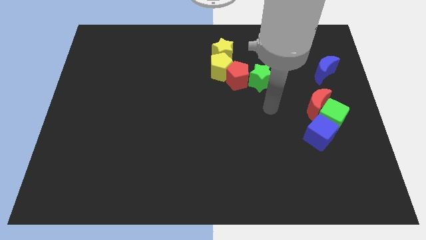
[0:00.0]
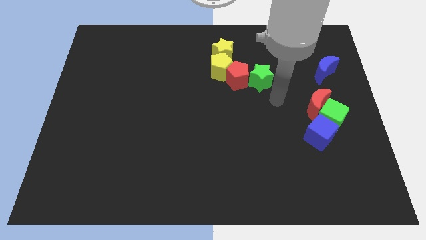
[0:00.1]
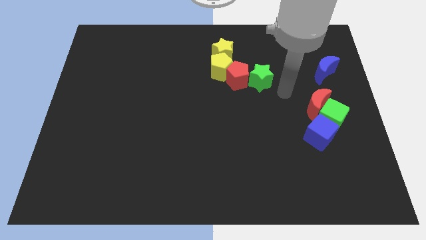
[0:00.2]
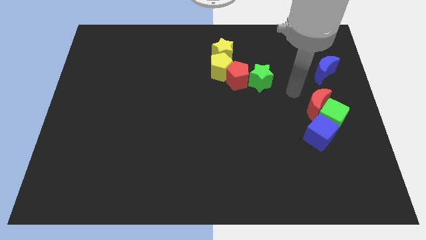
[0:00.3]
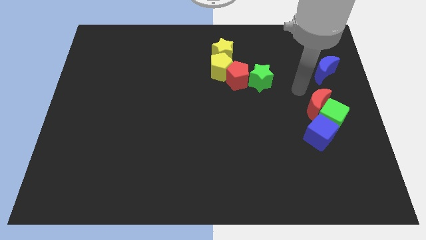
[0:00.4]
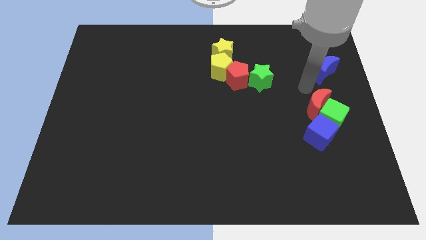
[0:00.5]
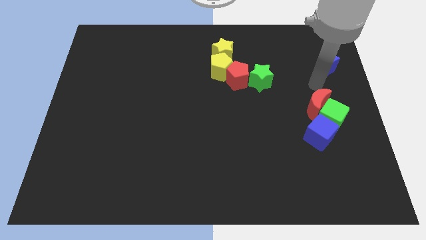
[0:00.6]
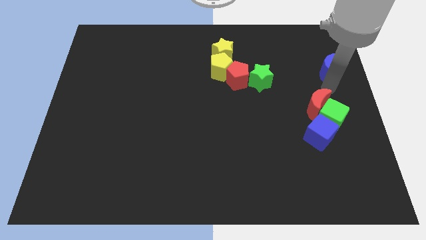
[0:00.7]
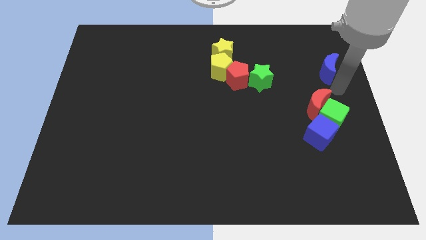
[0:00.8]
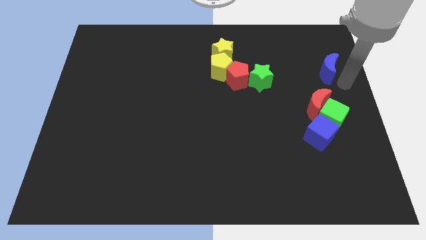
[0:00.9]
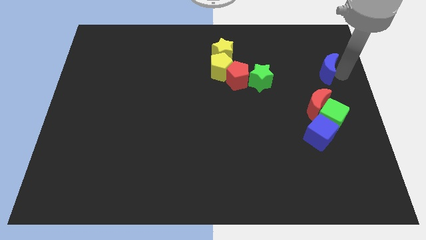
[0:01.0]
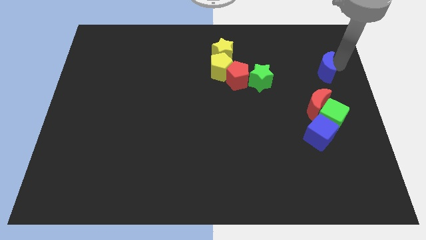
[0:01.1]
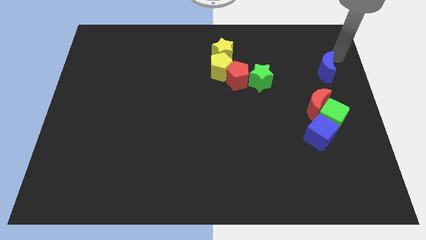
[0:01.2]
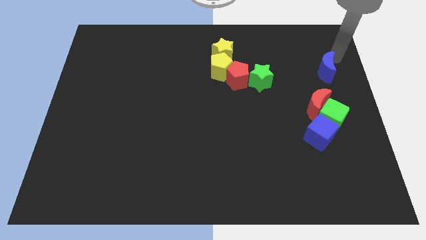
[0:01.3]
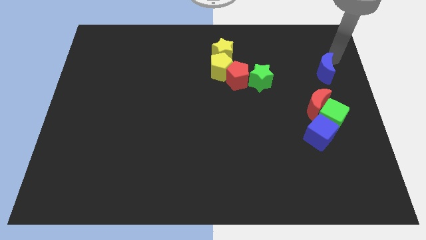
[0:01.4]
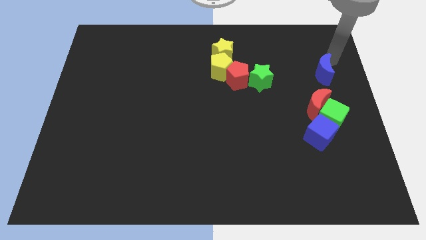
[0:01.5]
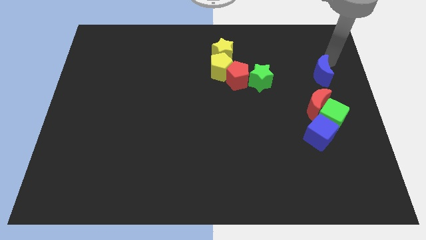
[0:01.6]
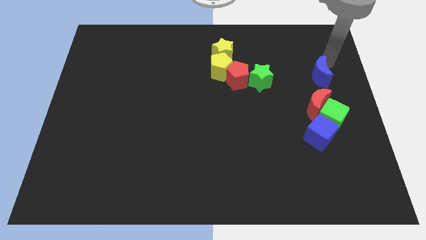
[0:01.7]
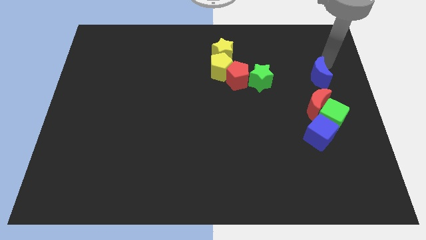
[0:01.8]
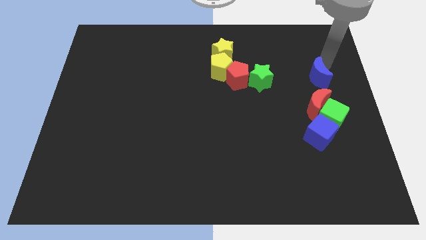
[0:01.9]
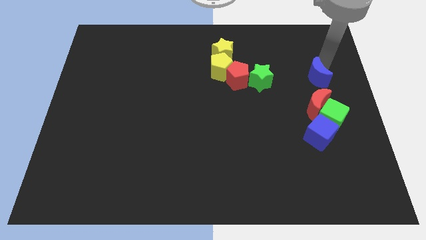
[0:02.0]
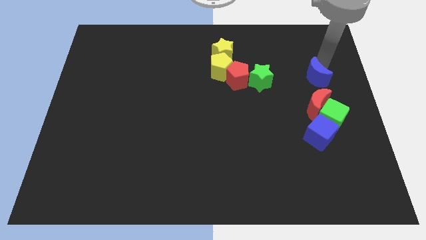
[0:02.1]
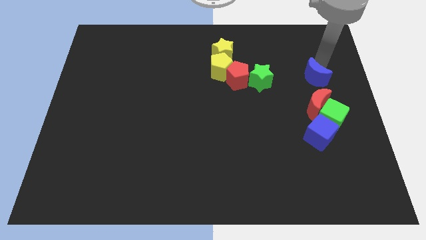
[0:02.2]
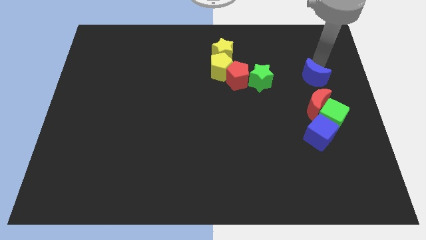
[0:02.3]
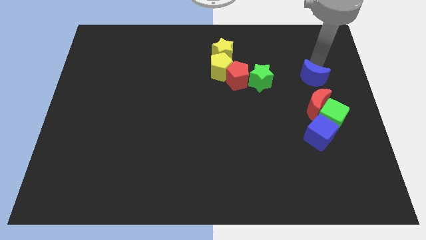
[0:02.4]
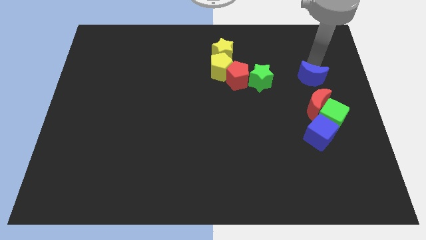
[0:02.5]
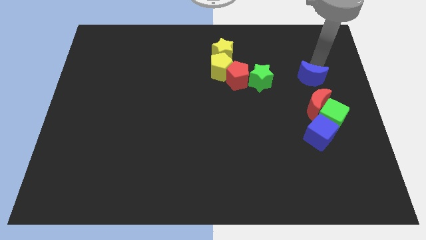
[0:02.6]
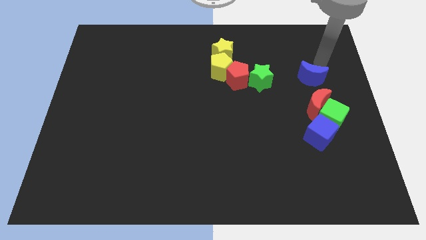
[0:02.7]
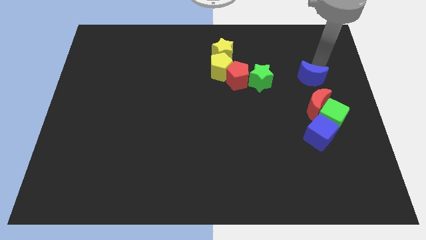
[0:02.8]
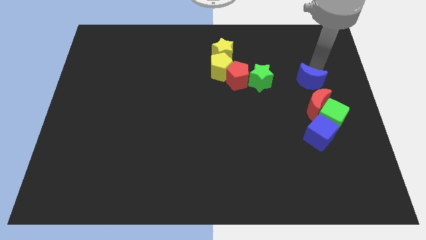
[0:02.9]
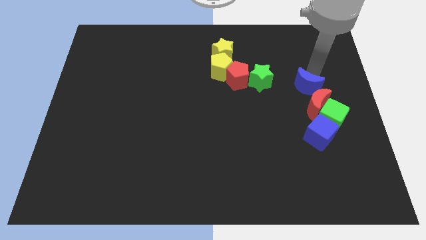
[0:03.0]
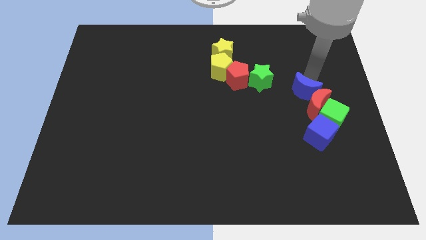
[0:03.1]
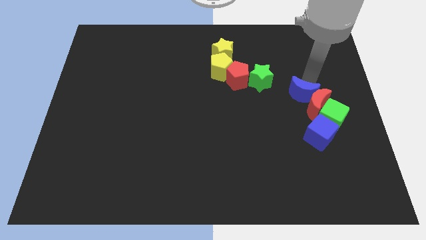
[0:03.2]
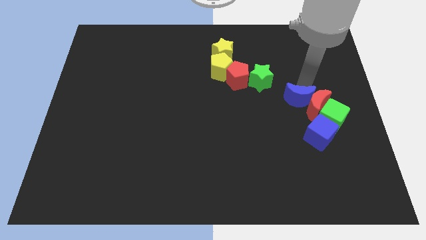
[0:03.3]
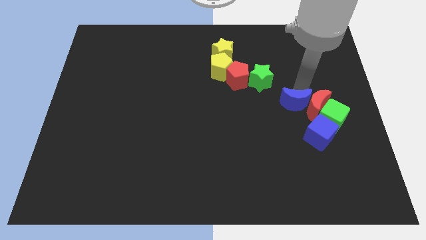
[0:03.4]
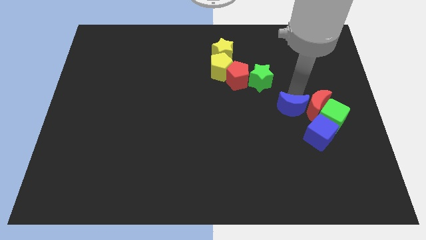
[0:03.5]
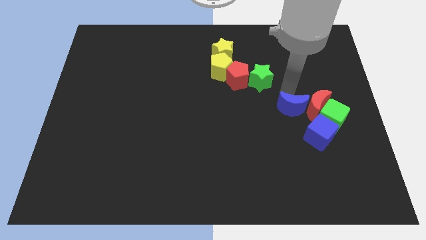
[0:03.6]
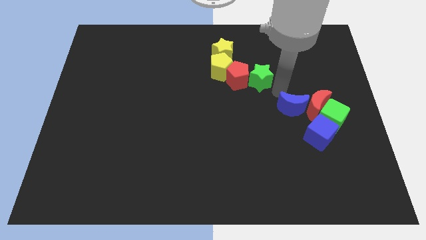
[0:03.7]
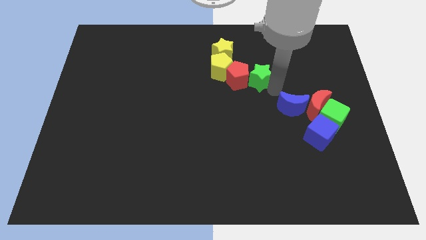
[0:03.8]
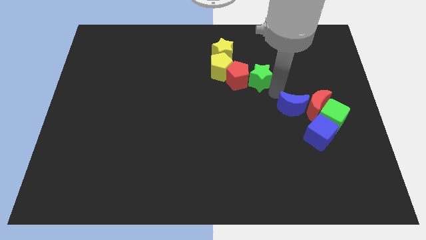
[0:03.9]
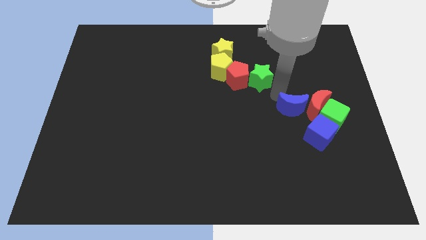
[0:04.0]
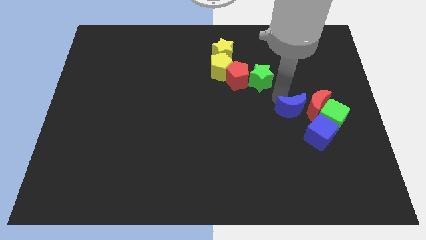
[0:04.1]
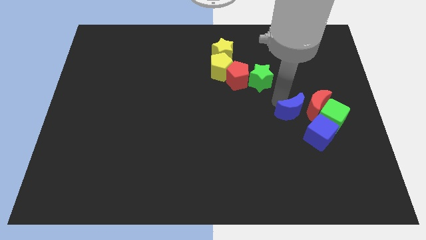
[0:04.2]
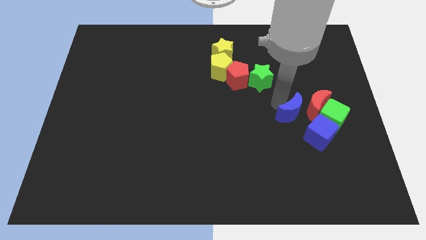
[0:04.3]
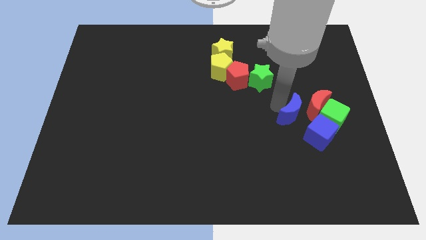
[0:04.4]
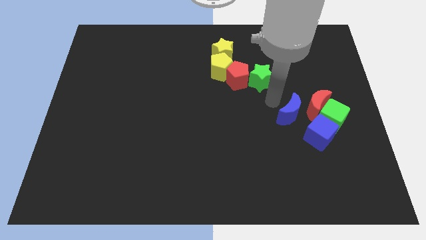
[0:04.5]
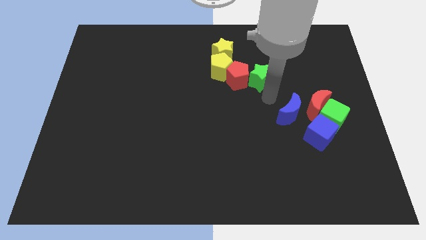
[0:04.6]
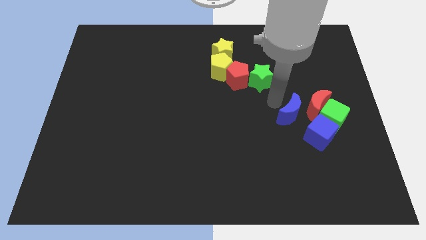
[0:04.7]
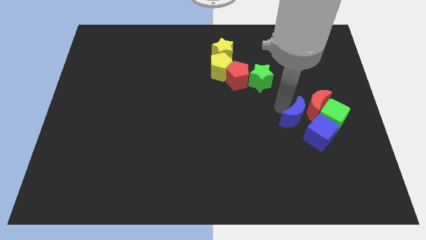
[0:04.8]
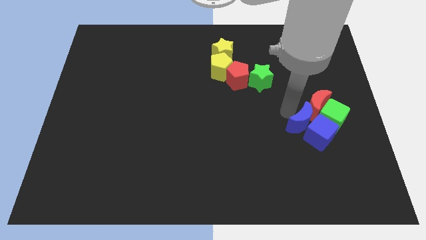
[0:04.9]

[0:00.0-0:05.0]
put the blue moon to the blue cube

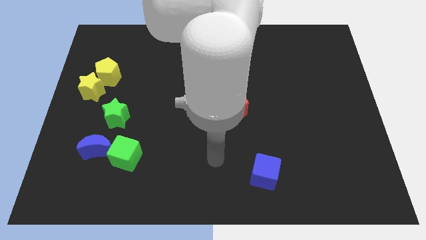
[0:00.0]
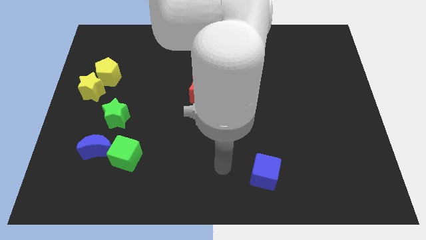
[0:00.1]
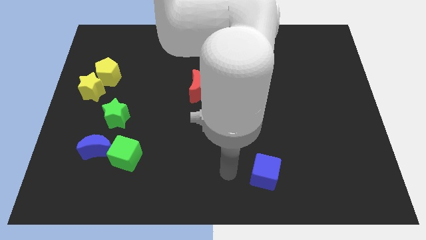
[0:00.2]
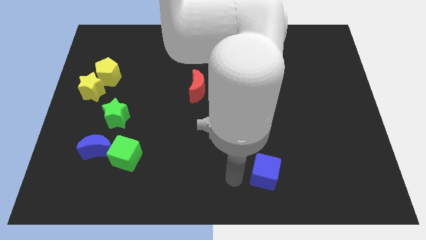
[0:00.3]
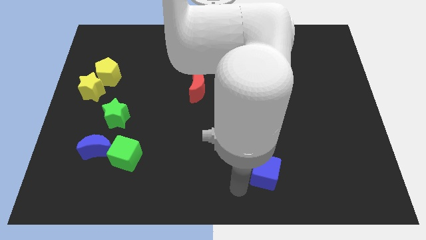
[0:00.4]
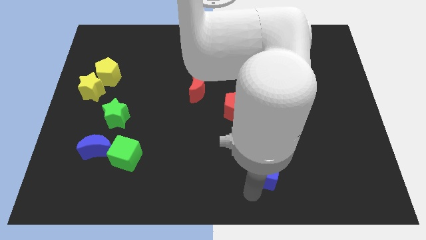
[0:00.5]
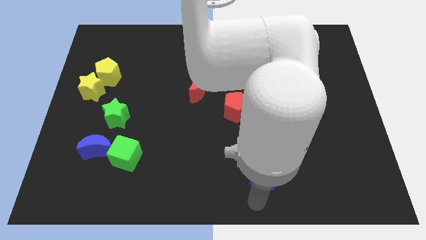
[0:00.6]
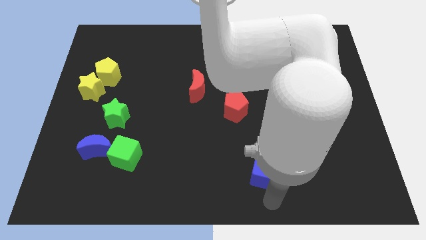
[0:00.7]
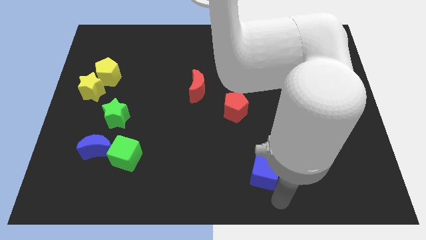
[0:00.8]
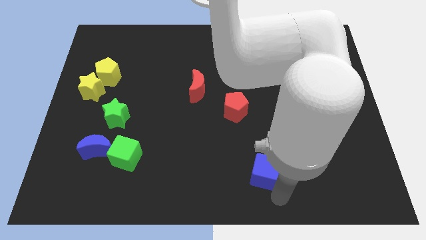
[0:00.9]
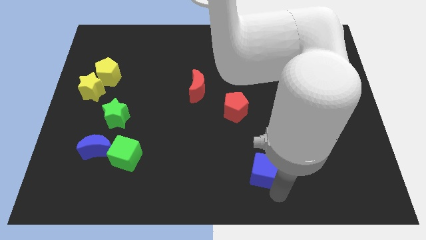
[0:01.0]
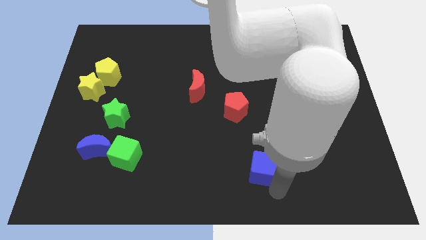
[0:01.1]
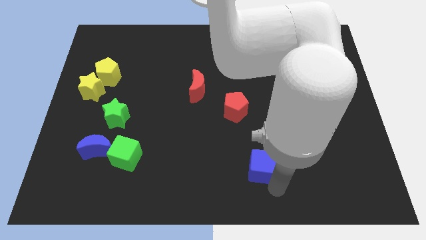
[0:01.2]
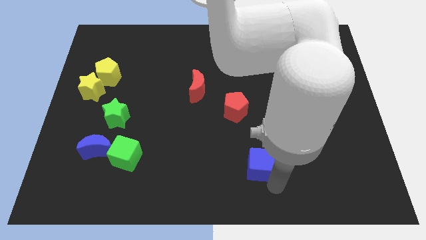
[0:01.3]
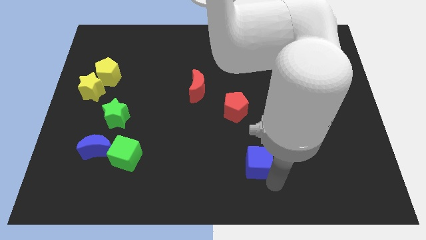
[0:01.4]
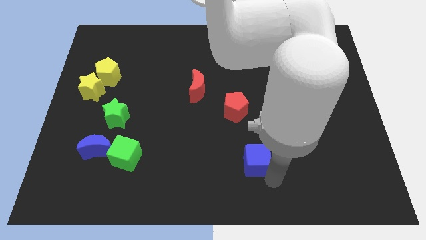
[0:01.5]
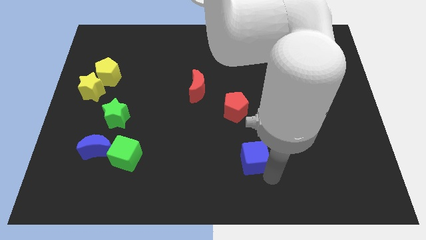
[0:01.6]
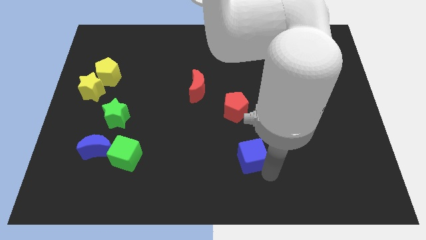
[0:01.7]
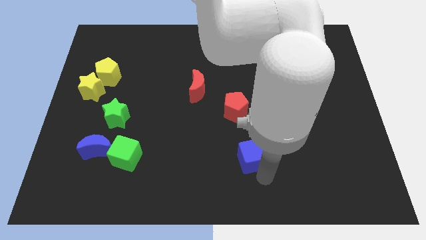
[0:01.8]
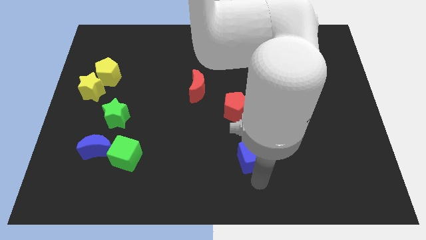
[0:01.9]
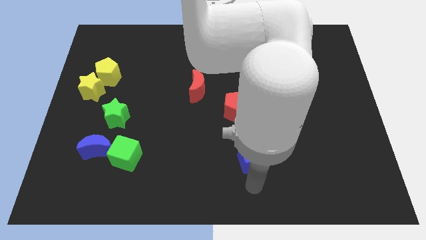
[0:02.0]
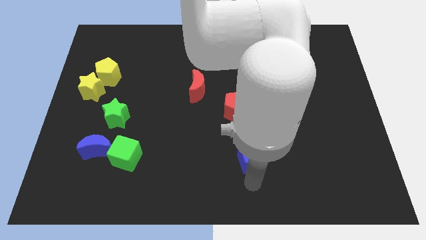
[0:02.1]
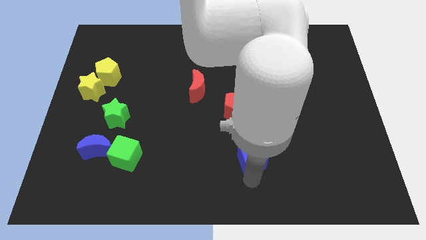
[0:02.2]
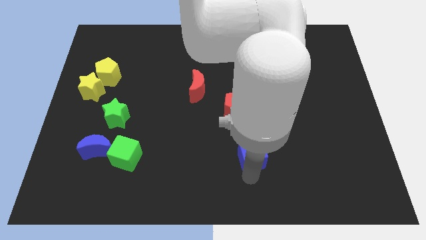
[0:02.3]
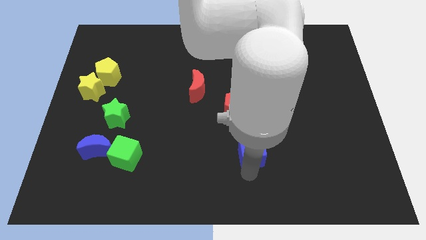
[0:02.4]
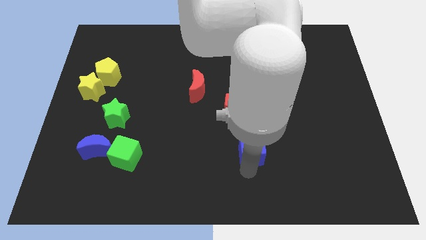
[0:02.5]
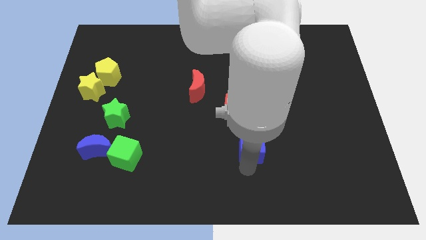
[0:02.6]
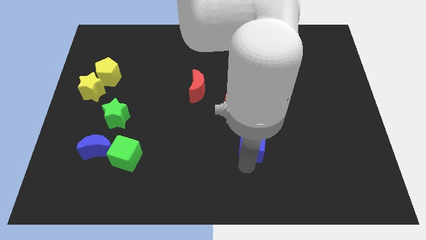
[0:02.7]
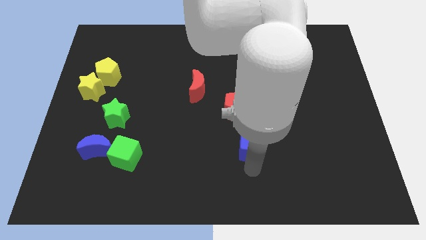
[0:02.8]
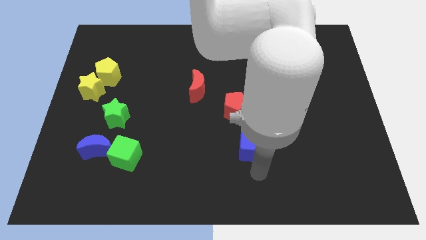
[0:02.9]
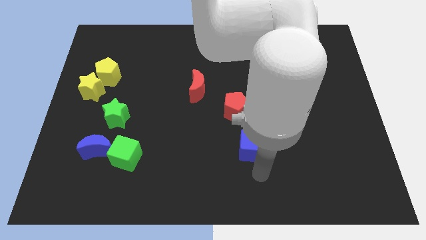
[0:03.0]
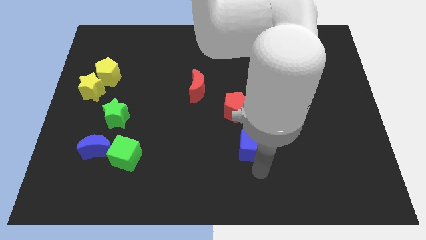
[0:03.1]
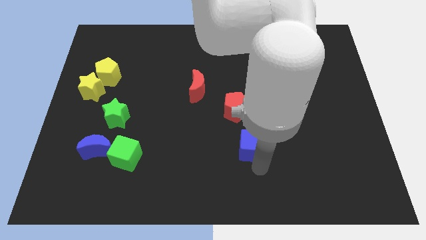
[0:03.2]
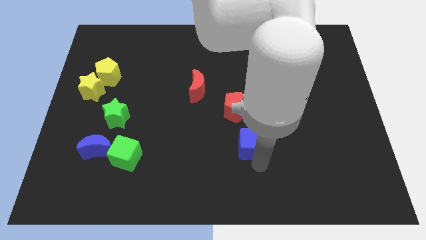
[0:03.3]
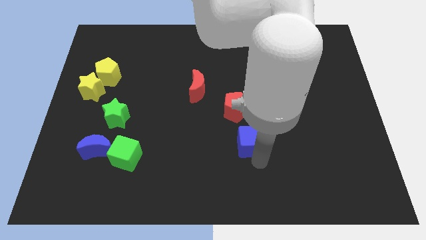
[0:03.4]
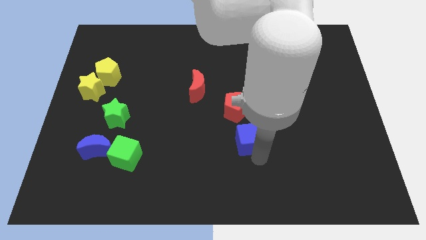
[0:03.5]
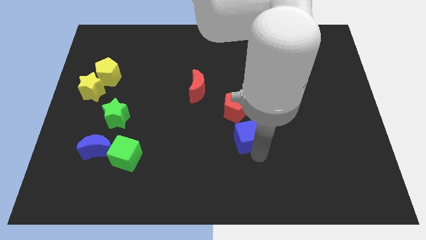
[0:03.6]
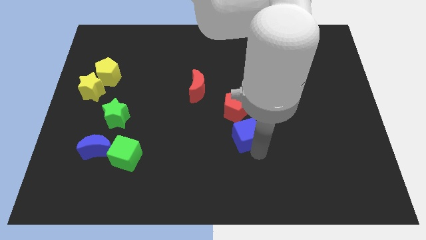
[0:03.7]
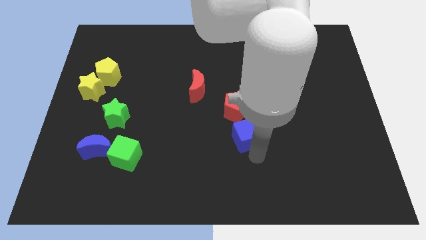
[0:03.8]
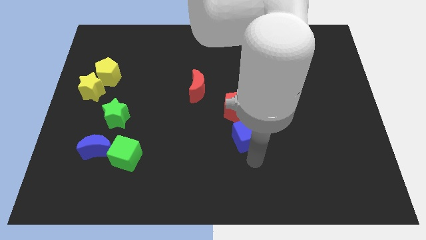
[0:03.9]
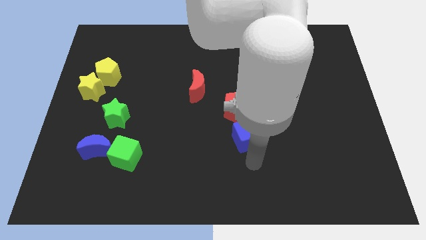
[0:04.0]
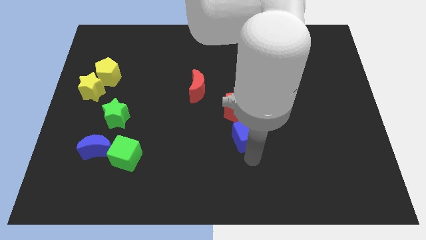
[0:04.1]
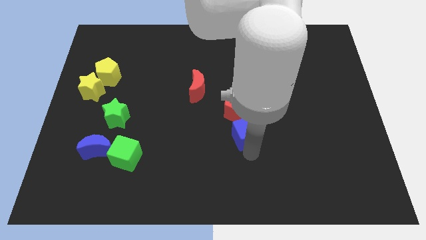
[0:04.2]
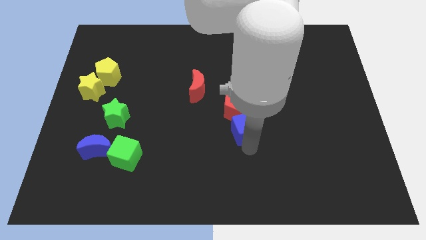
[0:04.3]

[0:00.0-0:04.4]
move the blue cube towards the red pentagon
